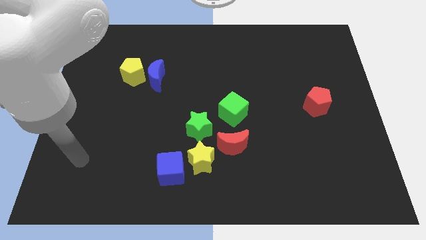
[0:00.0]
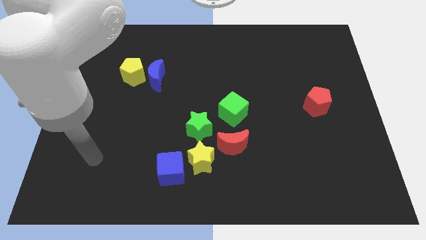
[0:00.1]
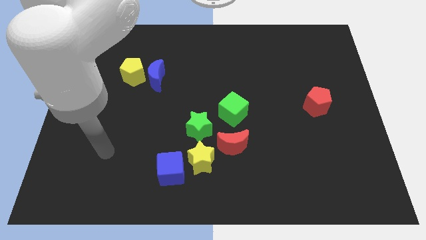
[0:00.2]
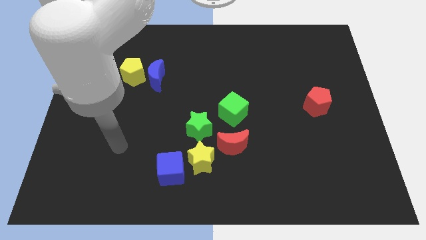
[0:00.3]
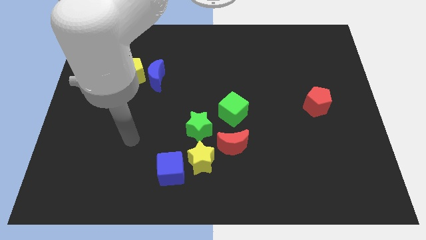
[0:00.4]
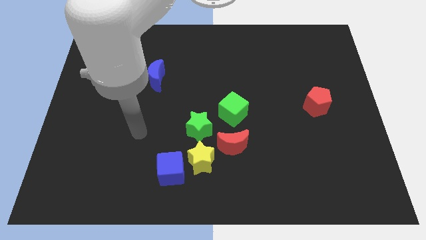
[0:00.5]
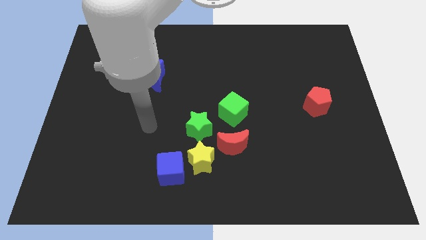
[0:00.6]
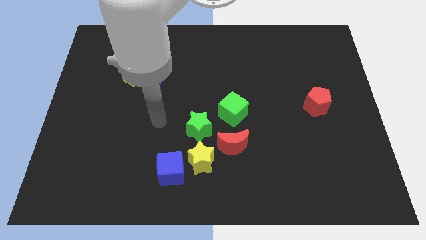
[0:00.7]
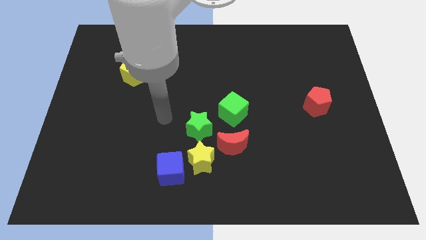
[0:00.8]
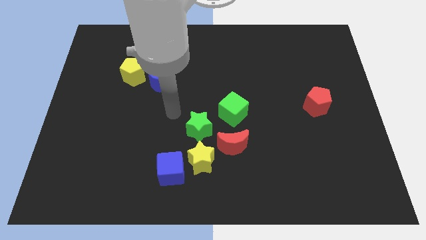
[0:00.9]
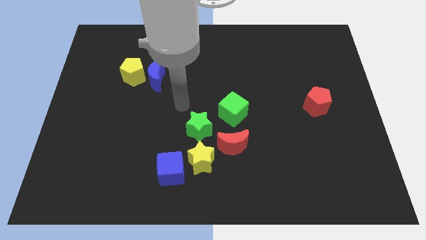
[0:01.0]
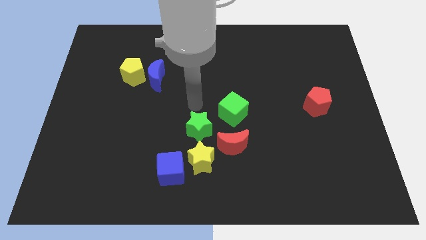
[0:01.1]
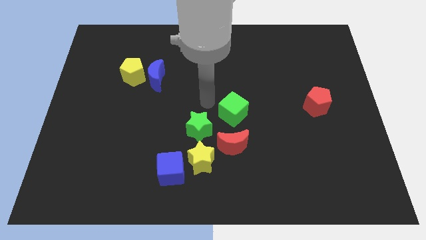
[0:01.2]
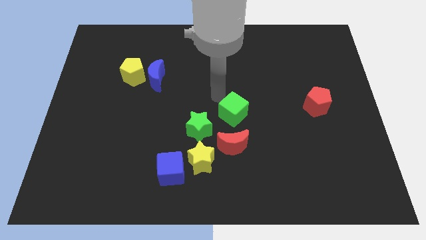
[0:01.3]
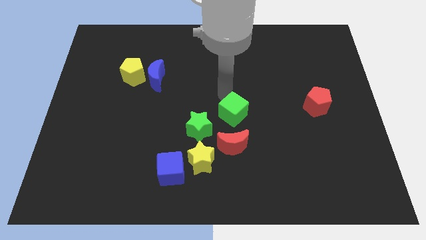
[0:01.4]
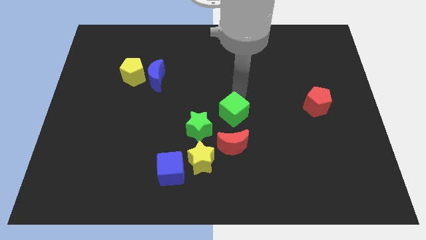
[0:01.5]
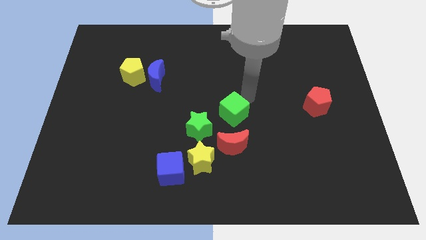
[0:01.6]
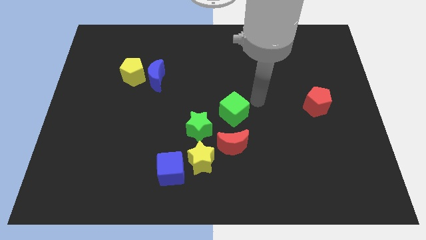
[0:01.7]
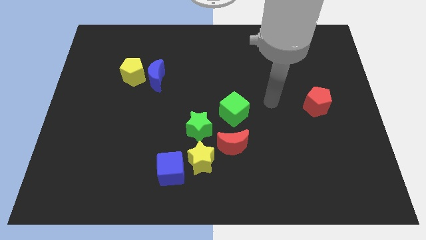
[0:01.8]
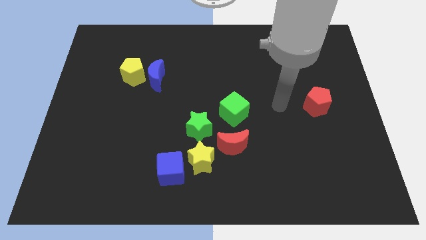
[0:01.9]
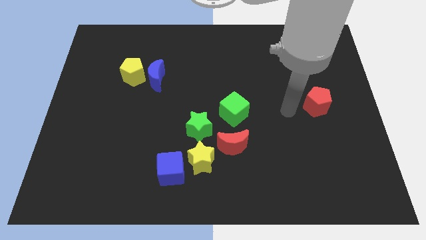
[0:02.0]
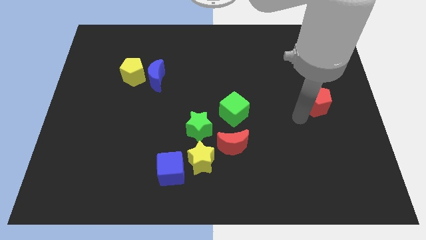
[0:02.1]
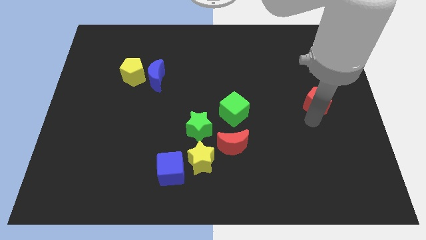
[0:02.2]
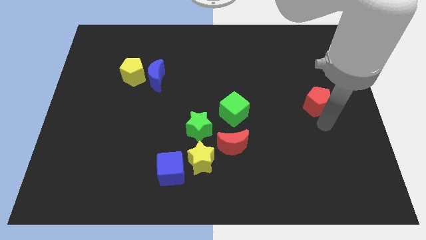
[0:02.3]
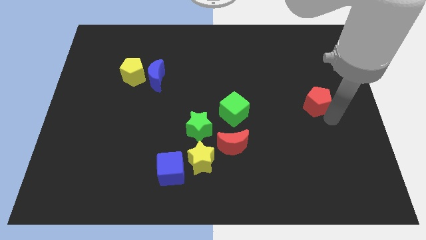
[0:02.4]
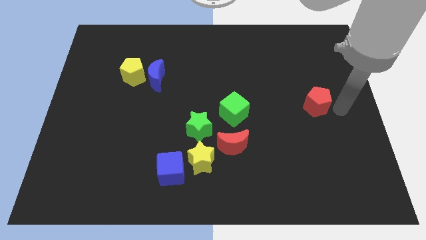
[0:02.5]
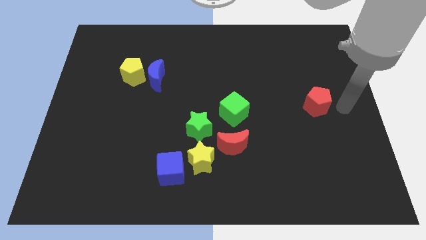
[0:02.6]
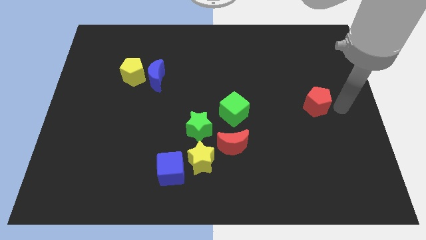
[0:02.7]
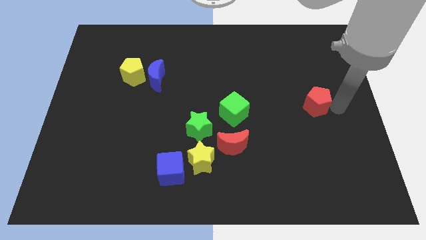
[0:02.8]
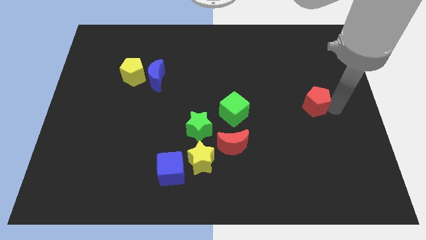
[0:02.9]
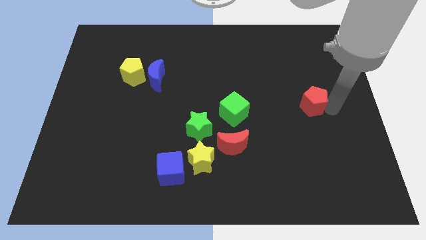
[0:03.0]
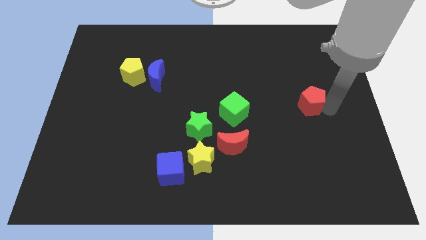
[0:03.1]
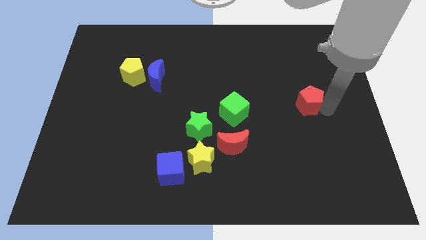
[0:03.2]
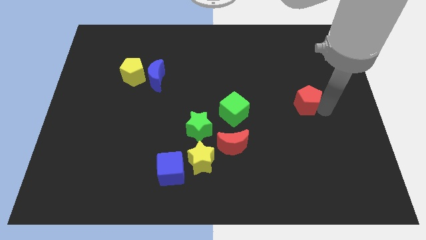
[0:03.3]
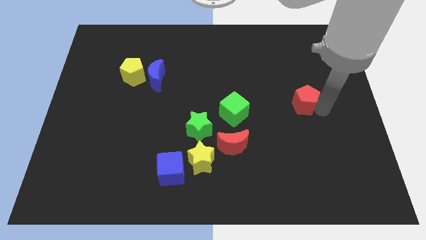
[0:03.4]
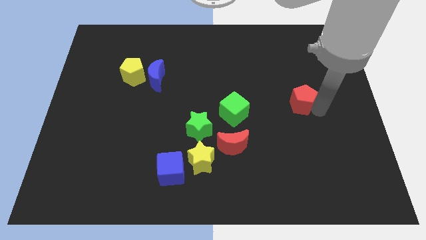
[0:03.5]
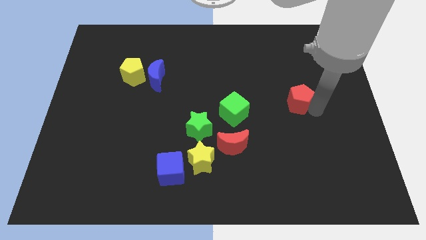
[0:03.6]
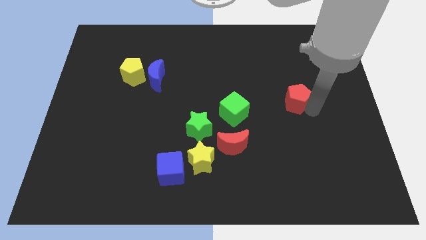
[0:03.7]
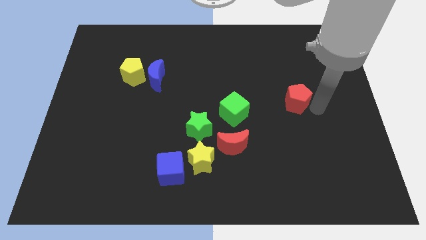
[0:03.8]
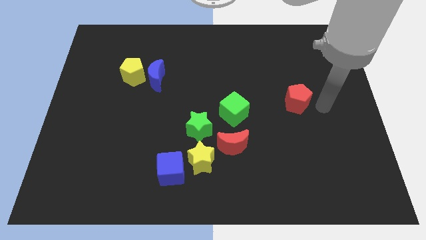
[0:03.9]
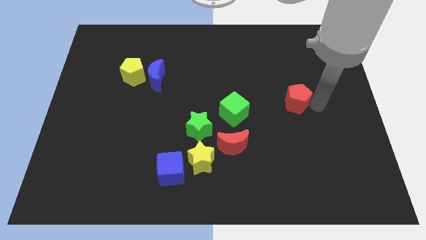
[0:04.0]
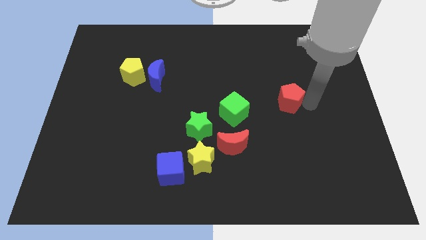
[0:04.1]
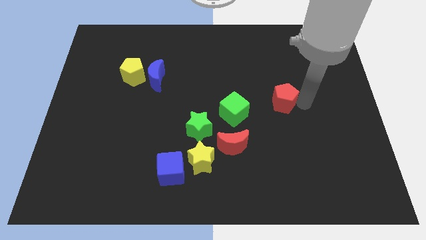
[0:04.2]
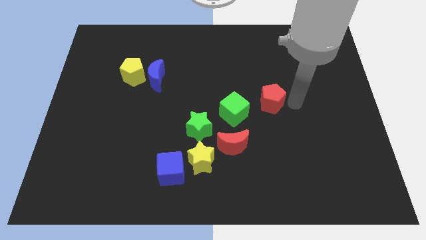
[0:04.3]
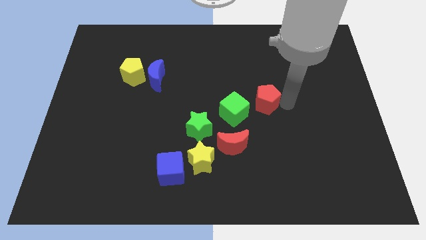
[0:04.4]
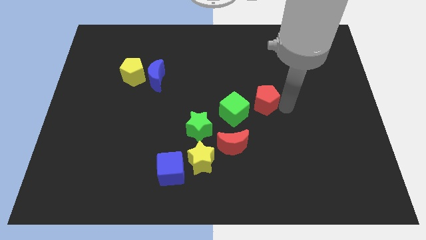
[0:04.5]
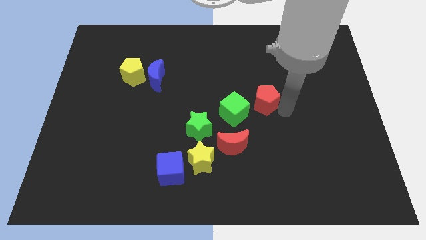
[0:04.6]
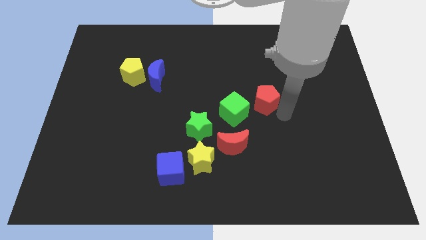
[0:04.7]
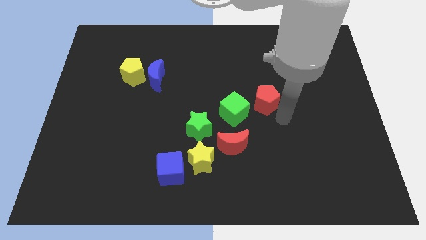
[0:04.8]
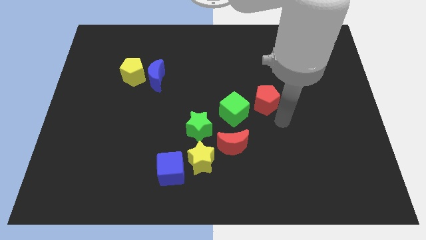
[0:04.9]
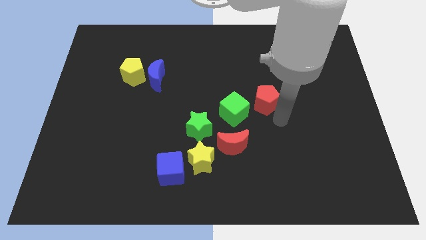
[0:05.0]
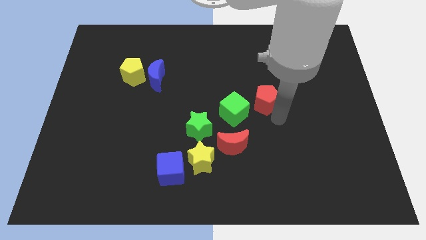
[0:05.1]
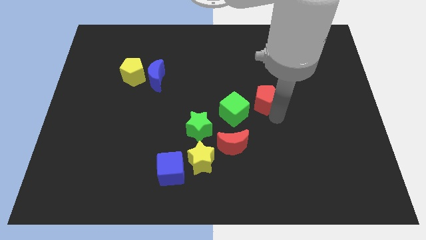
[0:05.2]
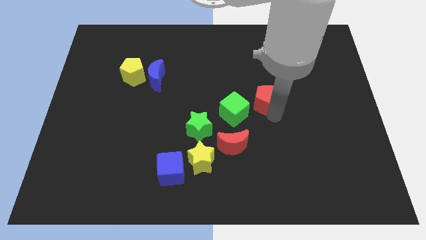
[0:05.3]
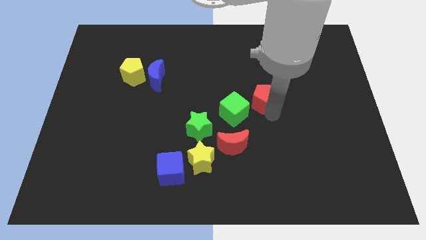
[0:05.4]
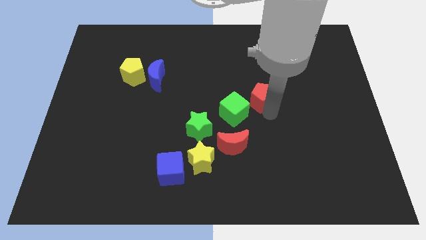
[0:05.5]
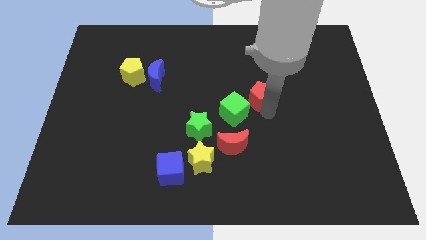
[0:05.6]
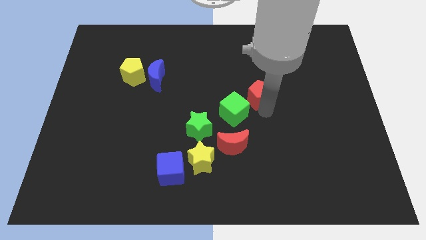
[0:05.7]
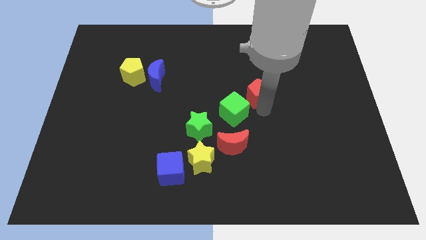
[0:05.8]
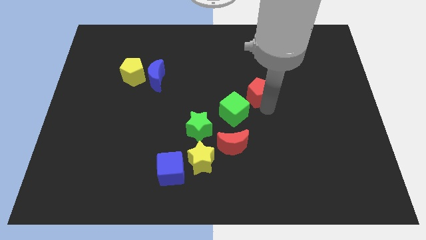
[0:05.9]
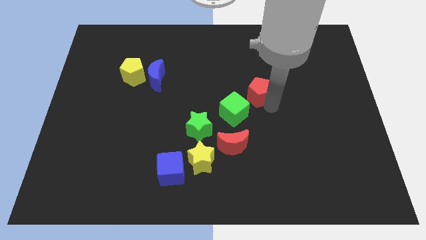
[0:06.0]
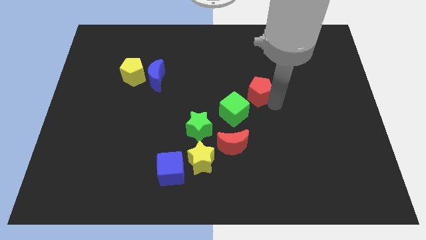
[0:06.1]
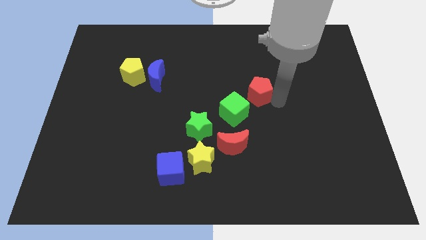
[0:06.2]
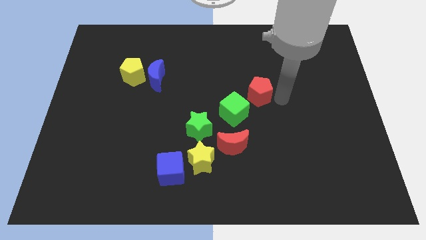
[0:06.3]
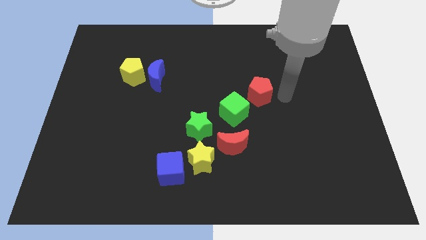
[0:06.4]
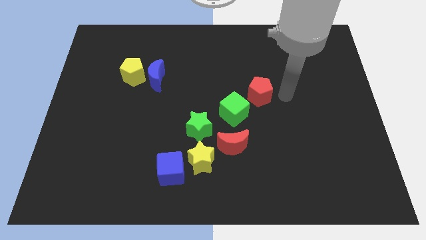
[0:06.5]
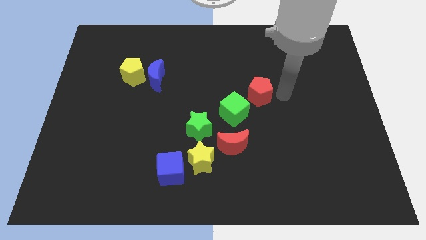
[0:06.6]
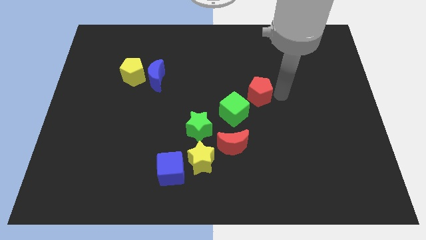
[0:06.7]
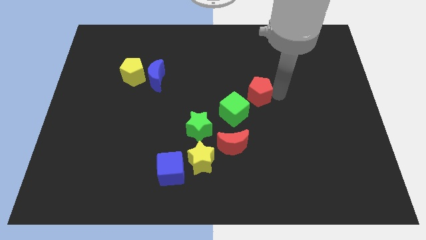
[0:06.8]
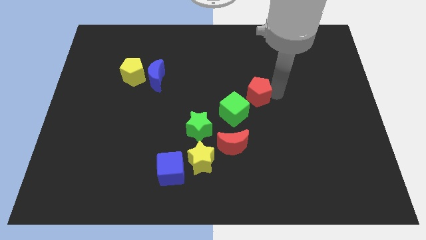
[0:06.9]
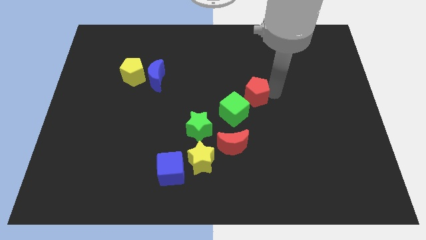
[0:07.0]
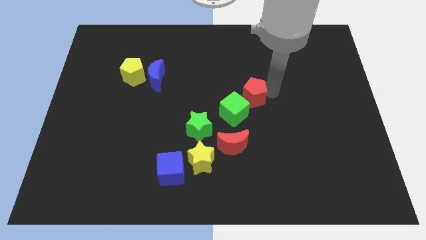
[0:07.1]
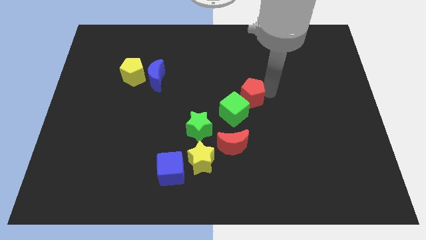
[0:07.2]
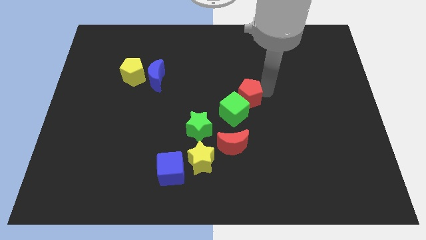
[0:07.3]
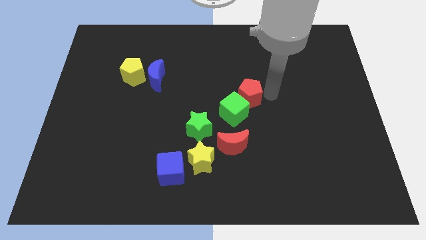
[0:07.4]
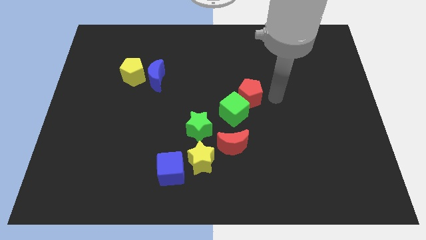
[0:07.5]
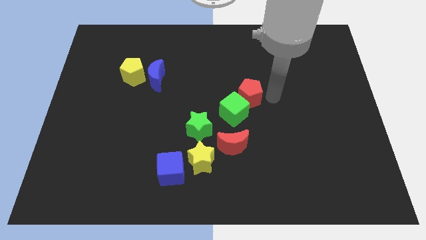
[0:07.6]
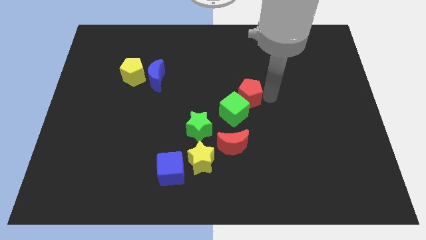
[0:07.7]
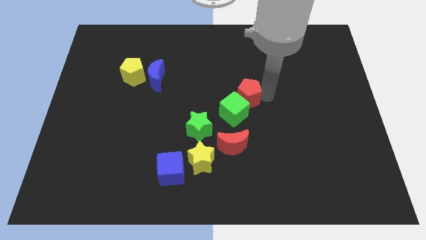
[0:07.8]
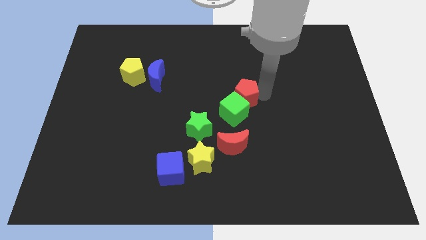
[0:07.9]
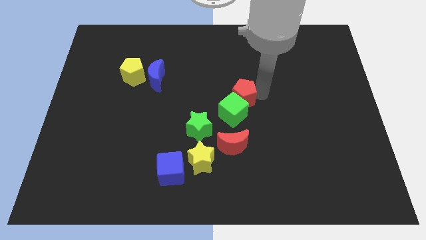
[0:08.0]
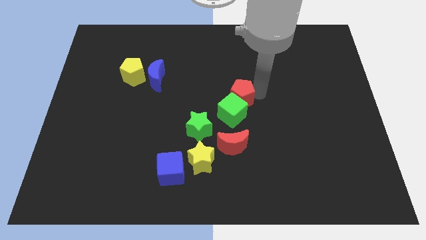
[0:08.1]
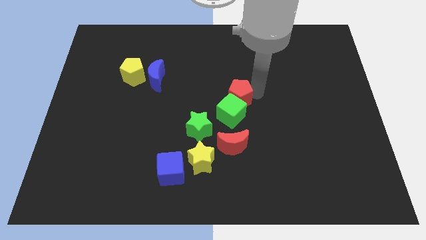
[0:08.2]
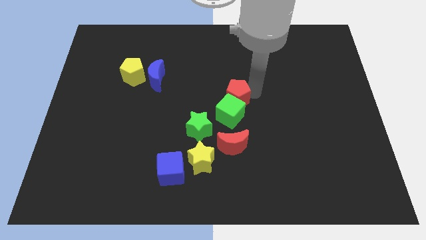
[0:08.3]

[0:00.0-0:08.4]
move the red pentagon diagonally up and to the left of the green cube
